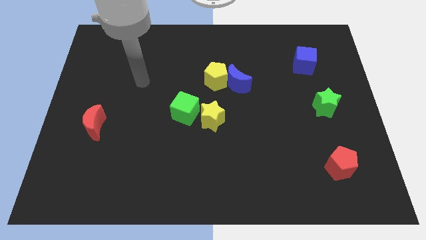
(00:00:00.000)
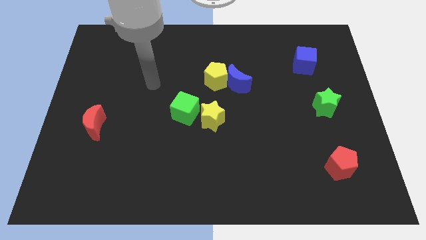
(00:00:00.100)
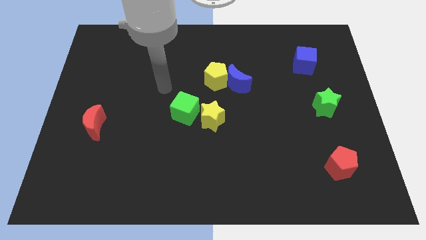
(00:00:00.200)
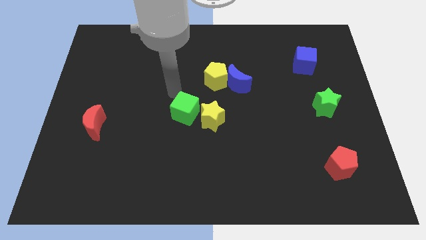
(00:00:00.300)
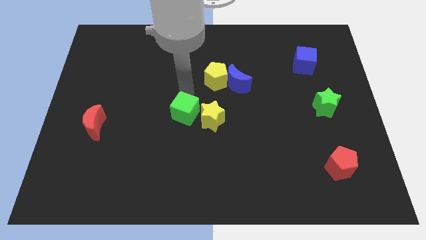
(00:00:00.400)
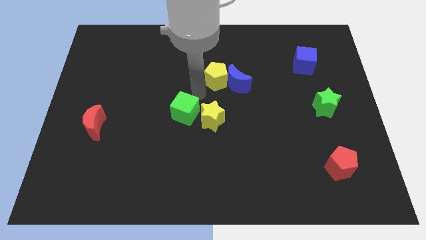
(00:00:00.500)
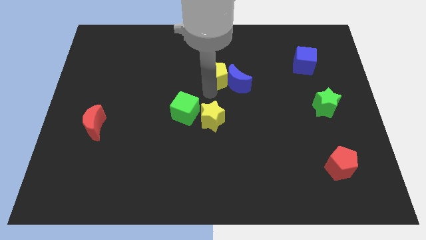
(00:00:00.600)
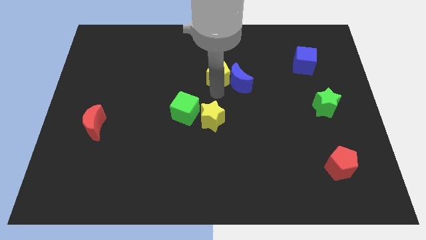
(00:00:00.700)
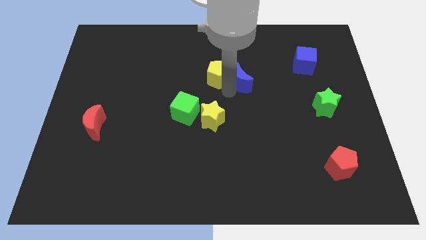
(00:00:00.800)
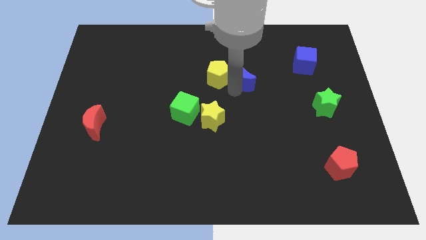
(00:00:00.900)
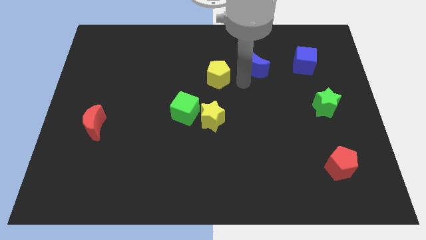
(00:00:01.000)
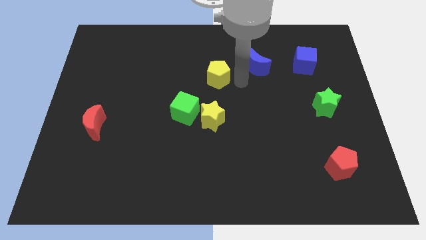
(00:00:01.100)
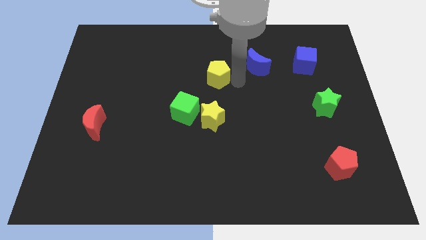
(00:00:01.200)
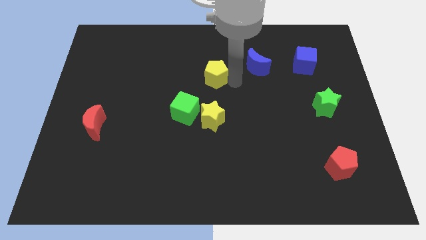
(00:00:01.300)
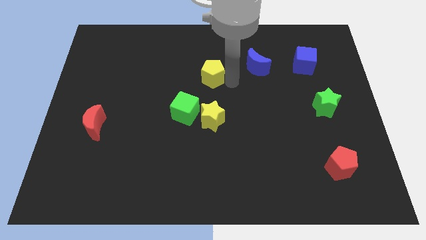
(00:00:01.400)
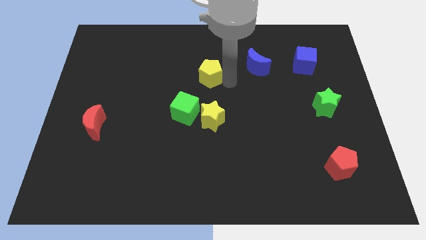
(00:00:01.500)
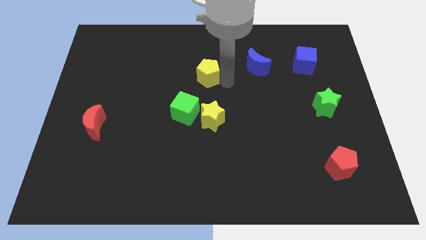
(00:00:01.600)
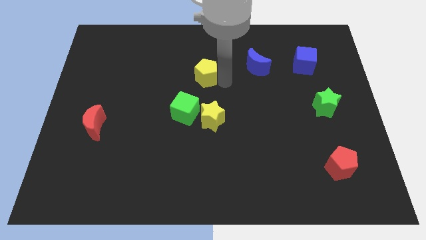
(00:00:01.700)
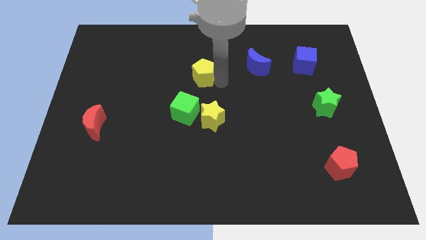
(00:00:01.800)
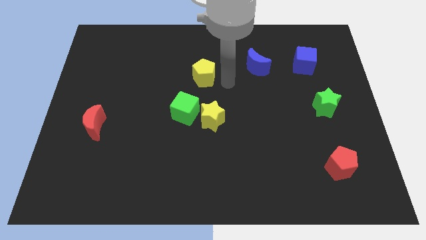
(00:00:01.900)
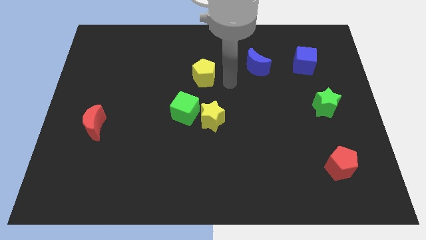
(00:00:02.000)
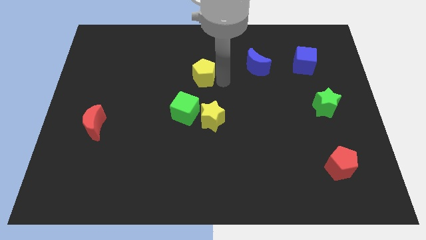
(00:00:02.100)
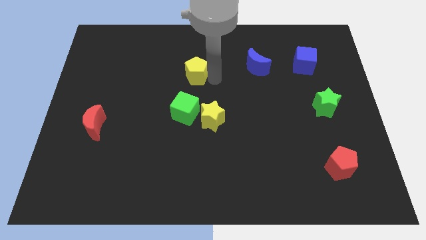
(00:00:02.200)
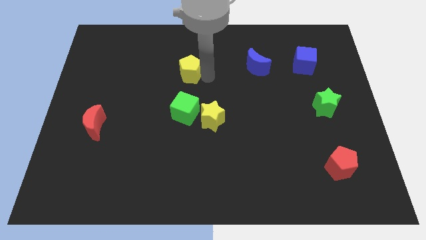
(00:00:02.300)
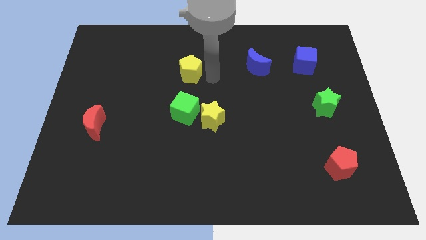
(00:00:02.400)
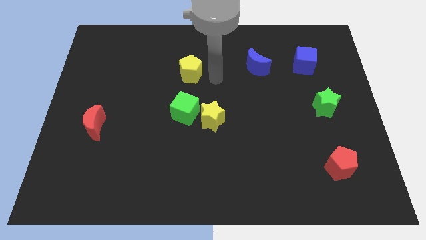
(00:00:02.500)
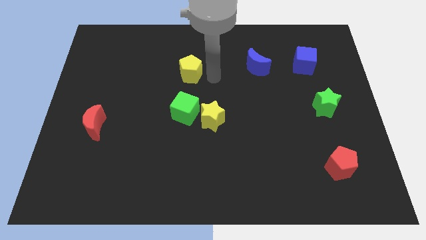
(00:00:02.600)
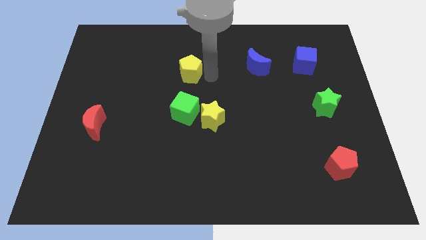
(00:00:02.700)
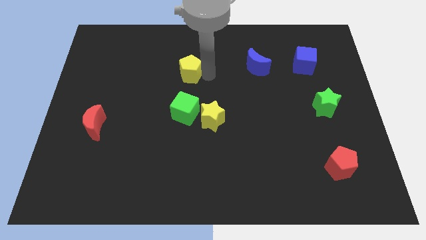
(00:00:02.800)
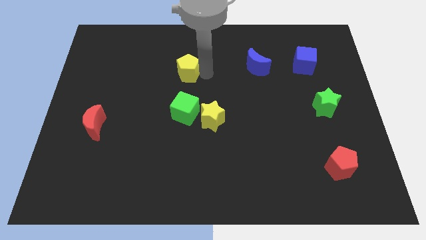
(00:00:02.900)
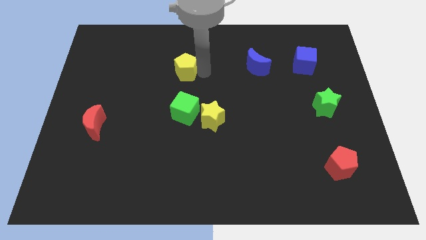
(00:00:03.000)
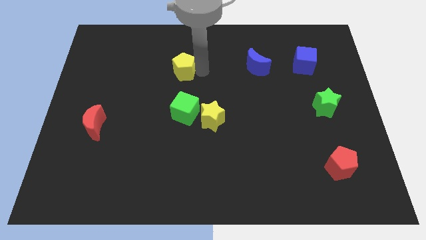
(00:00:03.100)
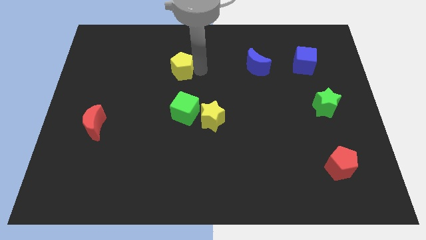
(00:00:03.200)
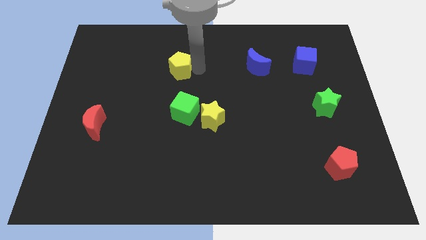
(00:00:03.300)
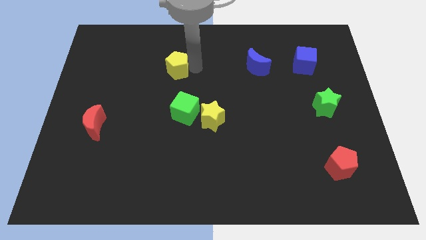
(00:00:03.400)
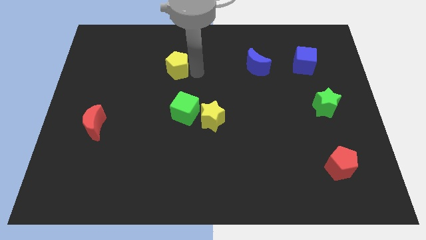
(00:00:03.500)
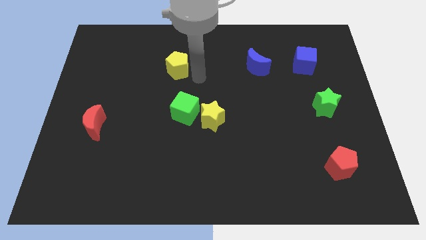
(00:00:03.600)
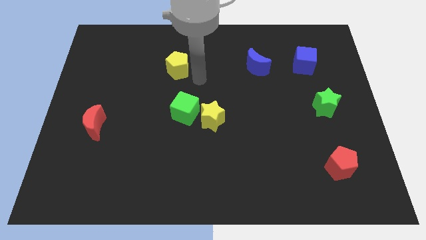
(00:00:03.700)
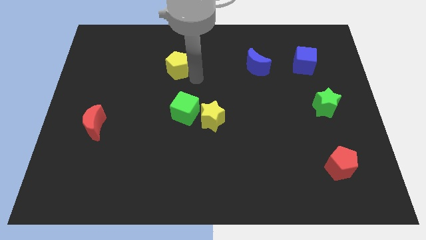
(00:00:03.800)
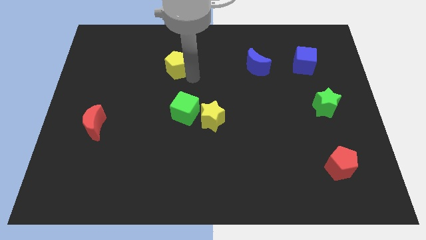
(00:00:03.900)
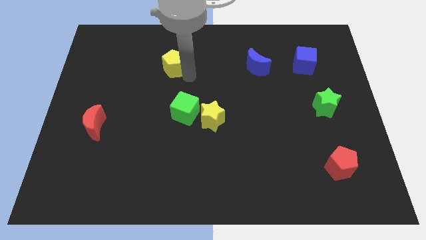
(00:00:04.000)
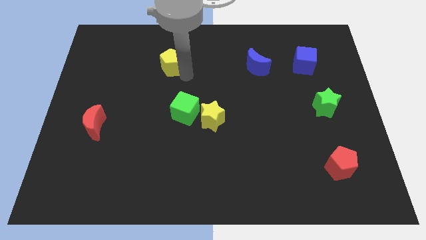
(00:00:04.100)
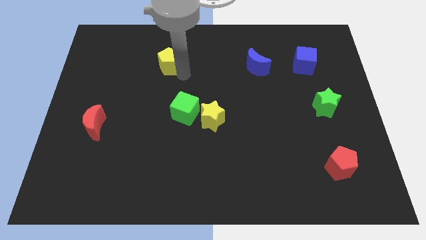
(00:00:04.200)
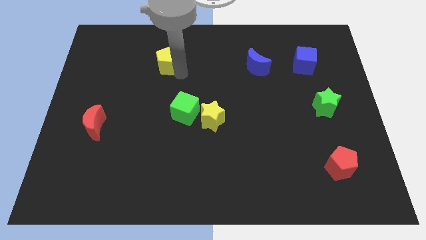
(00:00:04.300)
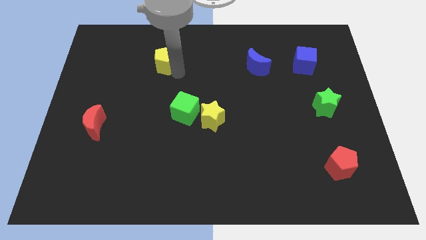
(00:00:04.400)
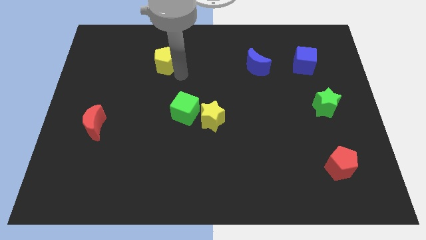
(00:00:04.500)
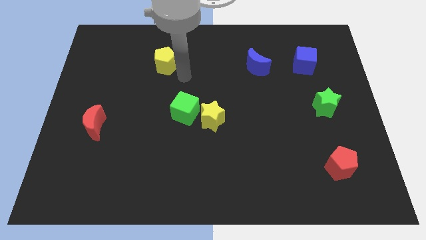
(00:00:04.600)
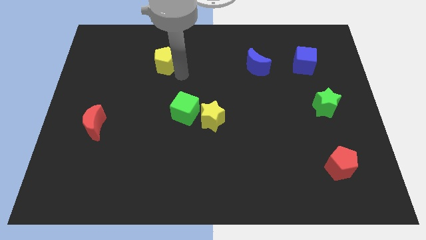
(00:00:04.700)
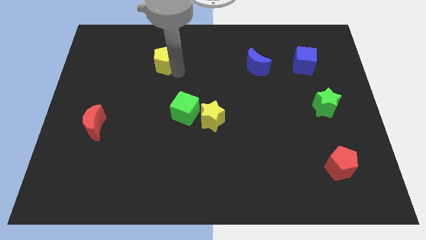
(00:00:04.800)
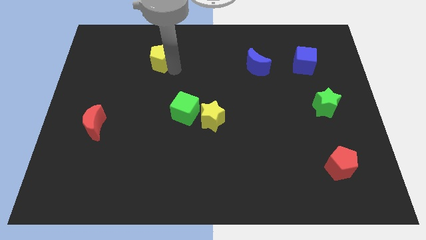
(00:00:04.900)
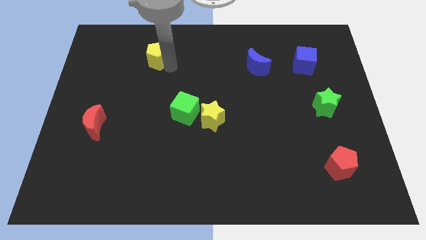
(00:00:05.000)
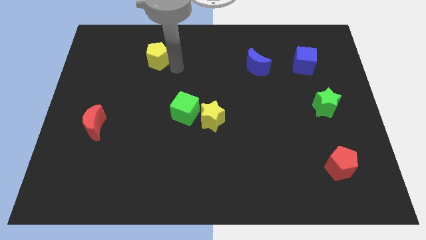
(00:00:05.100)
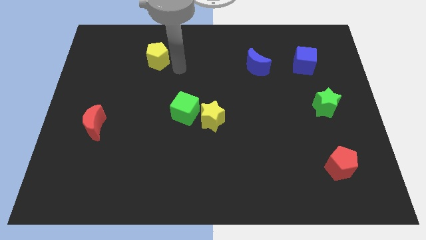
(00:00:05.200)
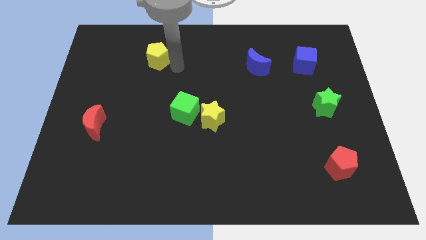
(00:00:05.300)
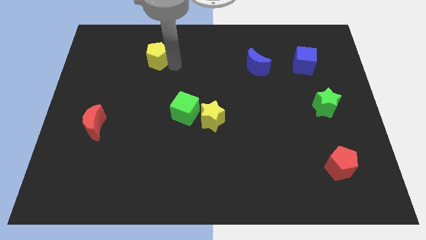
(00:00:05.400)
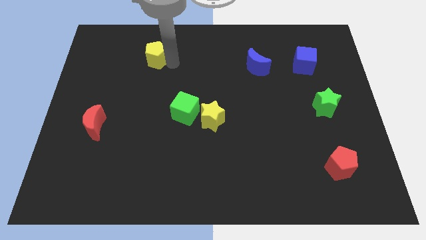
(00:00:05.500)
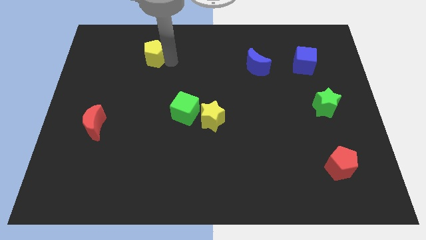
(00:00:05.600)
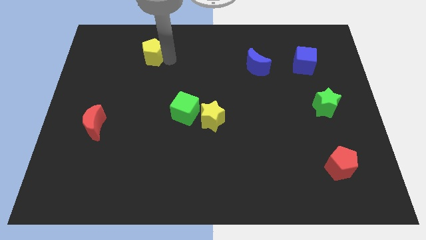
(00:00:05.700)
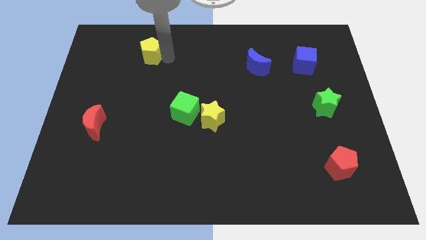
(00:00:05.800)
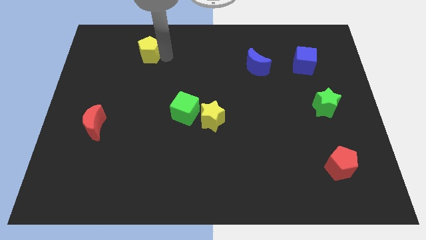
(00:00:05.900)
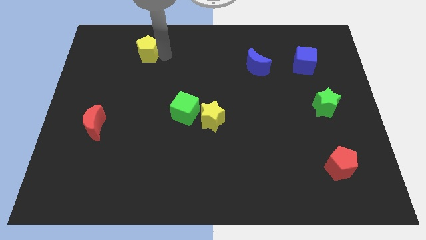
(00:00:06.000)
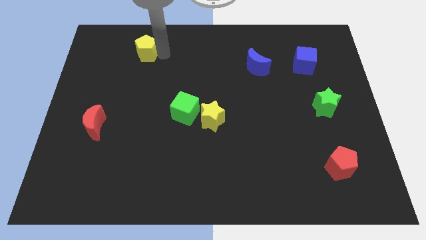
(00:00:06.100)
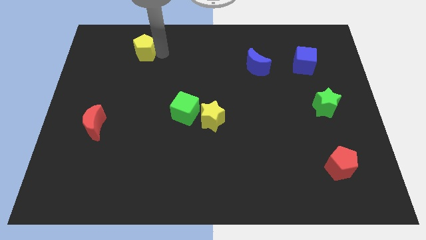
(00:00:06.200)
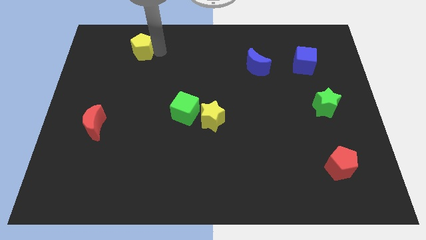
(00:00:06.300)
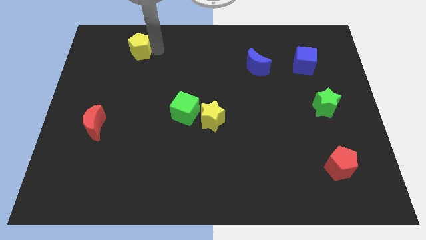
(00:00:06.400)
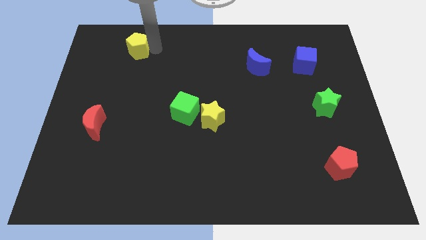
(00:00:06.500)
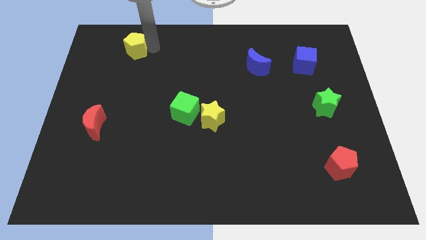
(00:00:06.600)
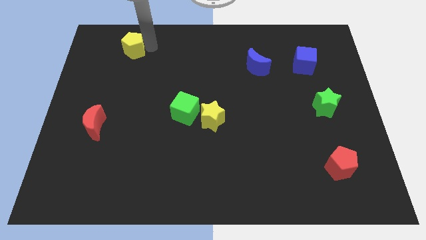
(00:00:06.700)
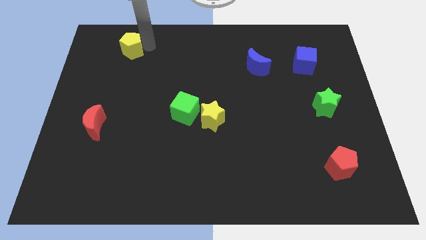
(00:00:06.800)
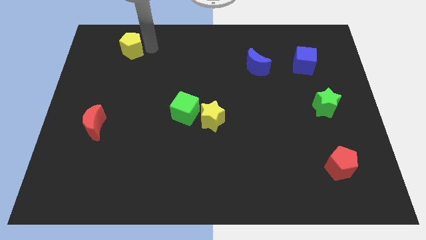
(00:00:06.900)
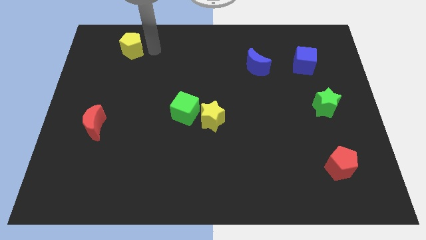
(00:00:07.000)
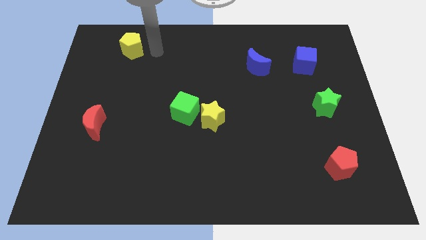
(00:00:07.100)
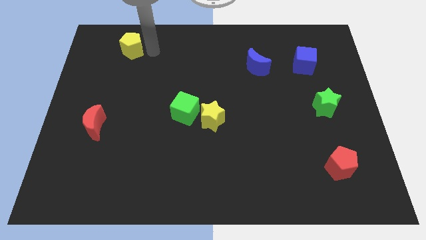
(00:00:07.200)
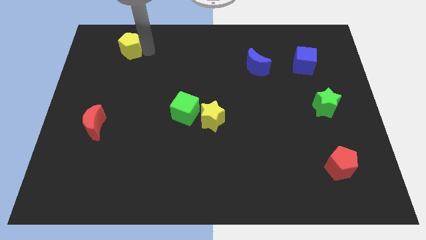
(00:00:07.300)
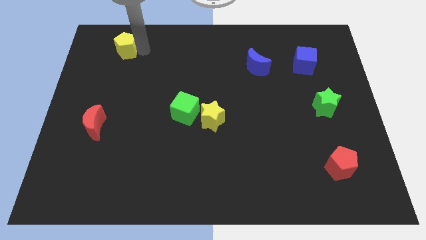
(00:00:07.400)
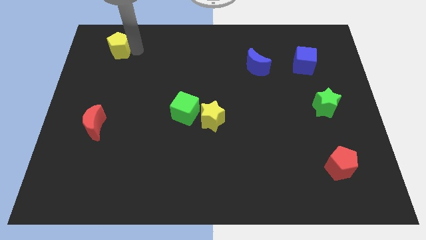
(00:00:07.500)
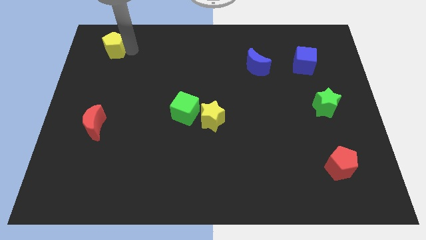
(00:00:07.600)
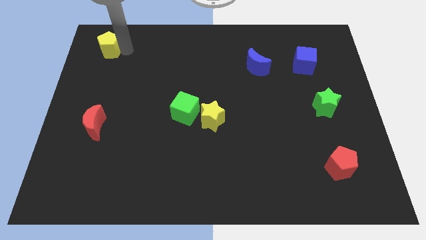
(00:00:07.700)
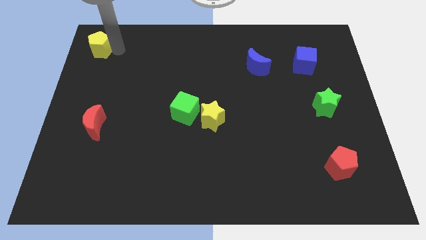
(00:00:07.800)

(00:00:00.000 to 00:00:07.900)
put the yellow pentagon to the top left corner
